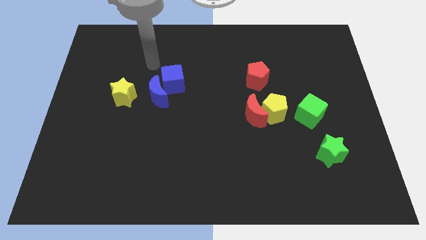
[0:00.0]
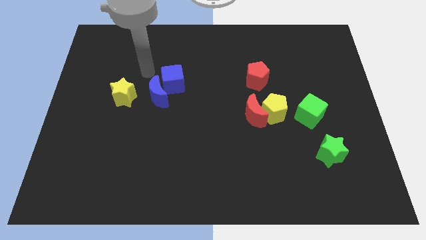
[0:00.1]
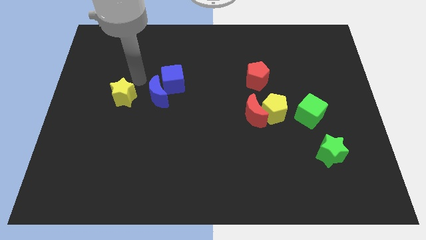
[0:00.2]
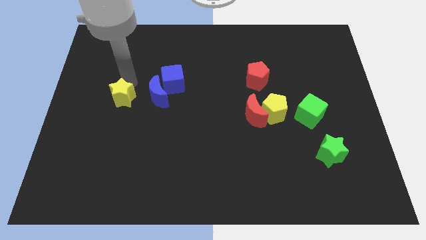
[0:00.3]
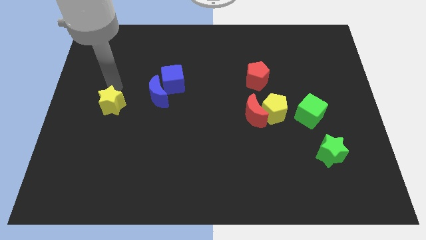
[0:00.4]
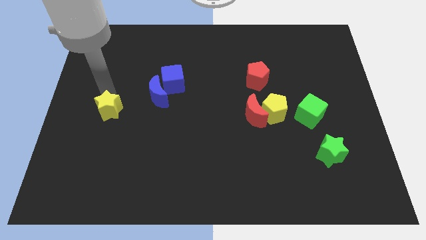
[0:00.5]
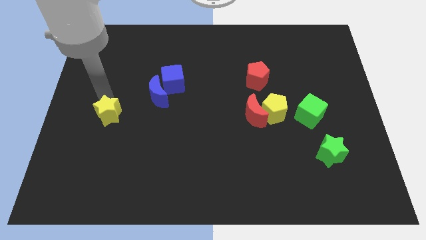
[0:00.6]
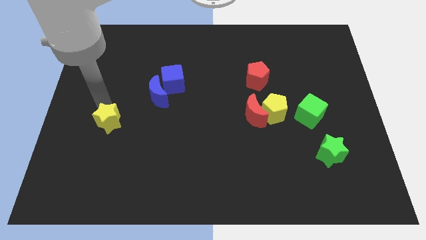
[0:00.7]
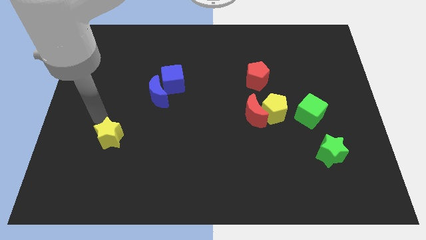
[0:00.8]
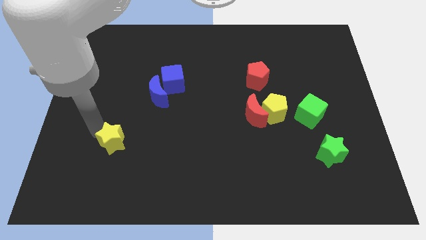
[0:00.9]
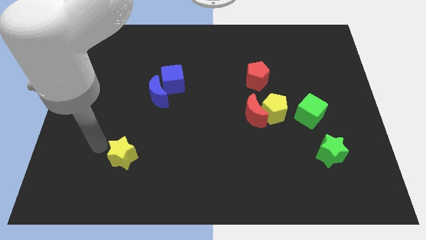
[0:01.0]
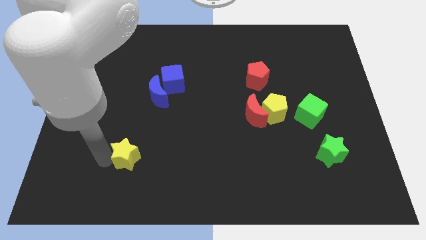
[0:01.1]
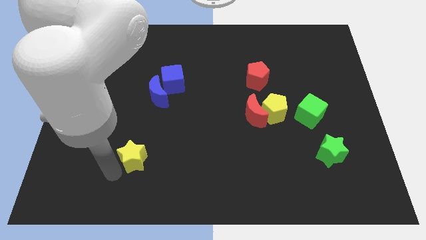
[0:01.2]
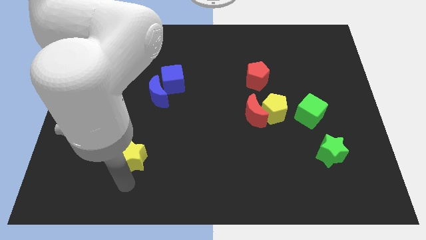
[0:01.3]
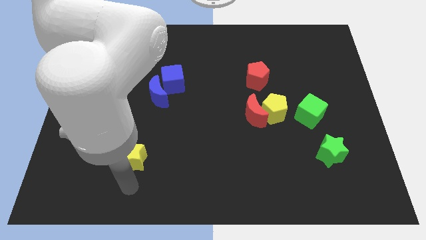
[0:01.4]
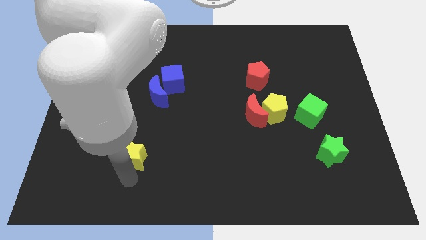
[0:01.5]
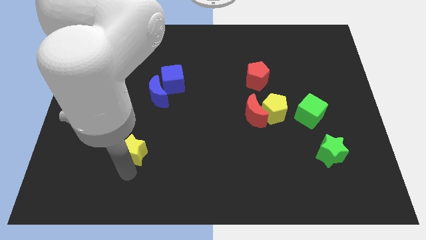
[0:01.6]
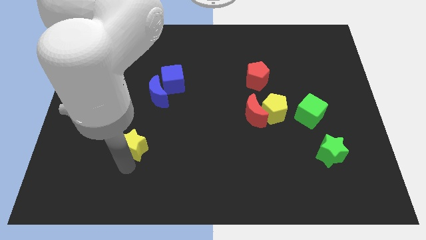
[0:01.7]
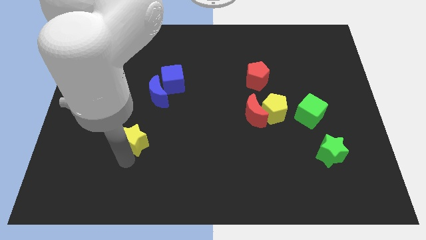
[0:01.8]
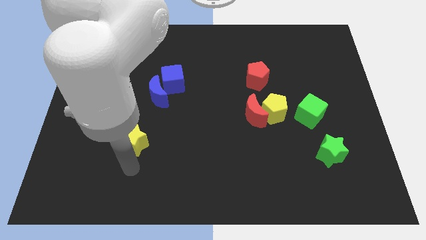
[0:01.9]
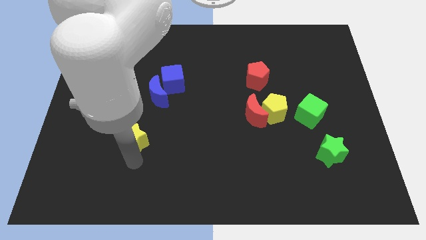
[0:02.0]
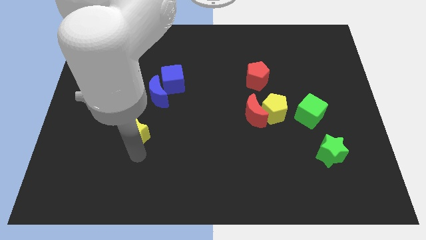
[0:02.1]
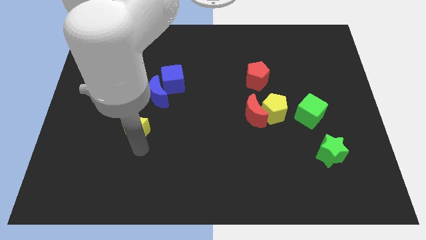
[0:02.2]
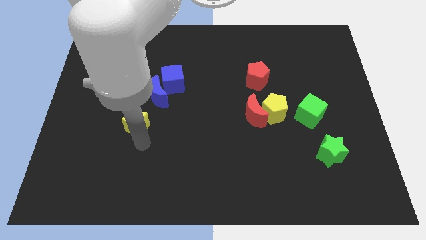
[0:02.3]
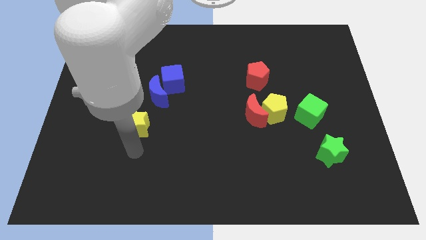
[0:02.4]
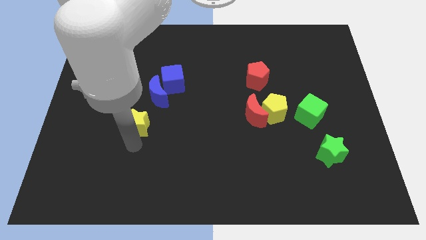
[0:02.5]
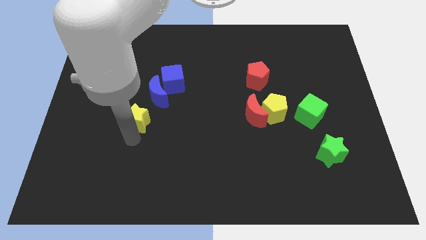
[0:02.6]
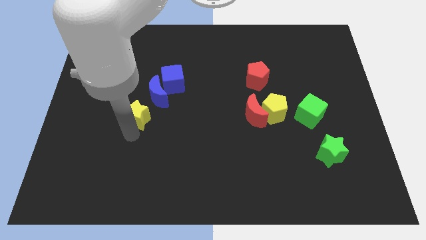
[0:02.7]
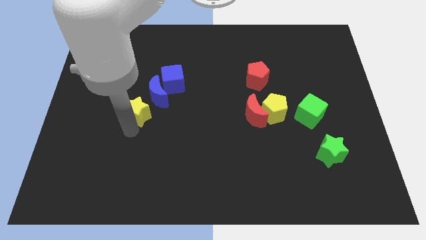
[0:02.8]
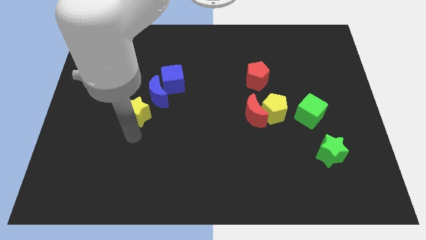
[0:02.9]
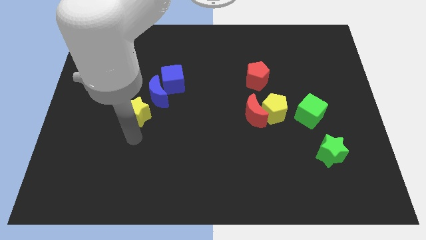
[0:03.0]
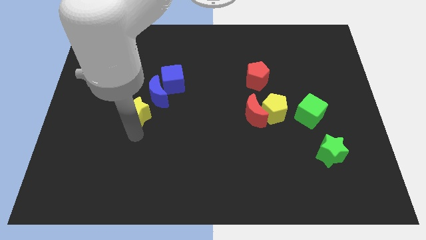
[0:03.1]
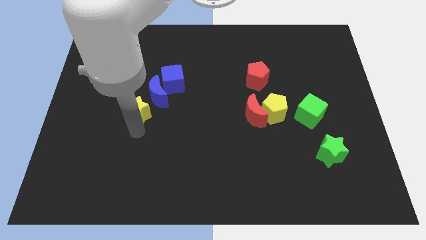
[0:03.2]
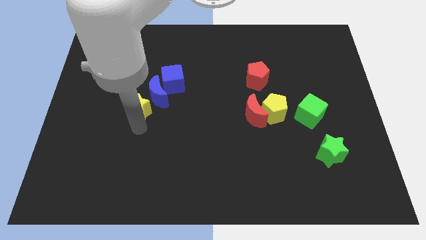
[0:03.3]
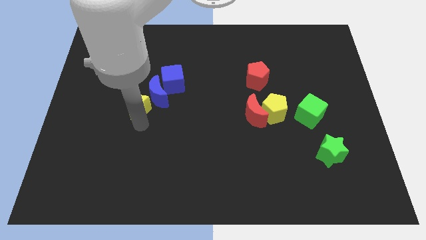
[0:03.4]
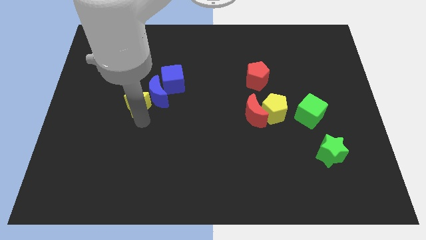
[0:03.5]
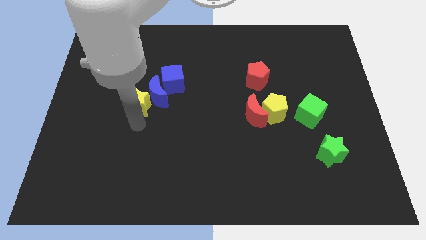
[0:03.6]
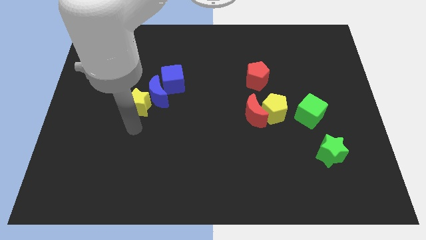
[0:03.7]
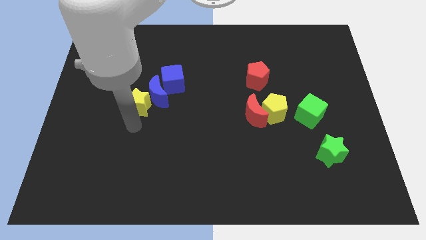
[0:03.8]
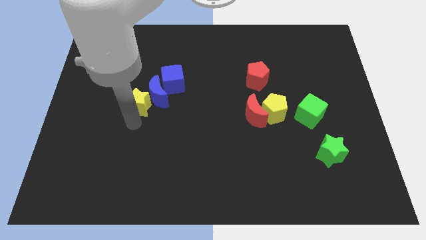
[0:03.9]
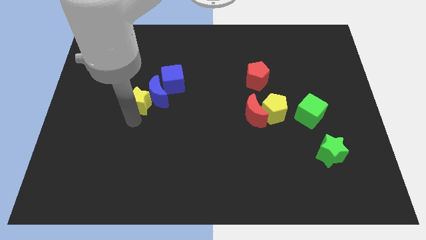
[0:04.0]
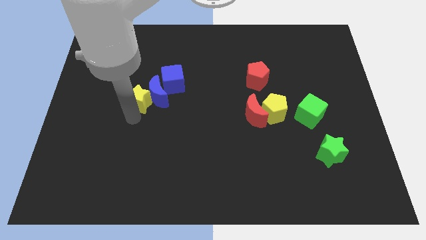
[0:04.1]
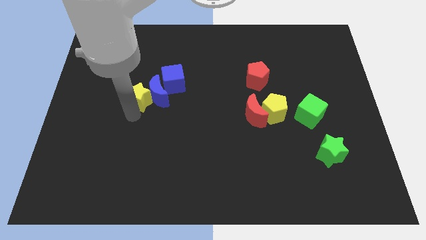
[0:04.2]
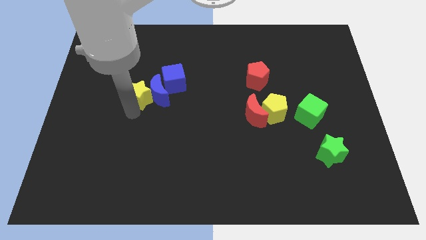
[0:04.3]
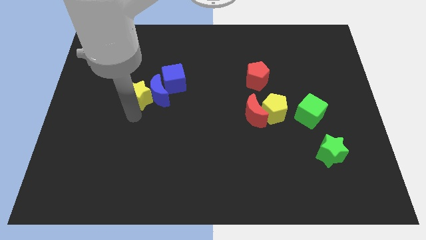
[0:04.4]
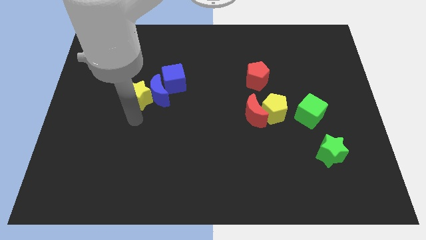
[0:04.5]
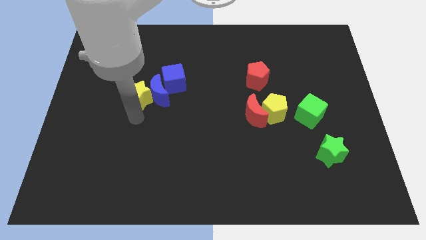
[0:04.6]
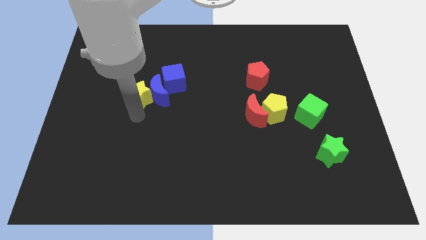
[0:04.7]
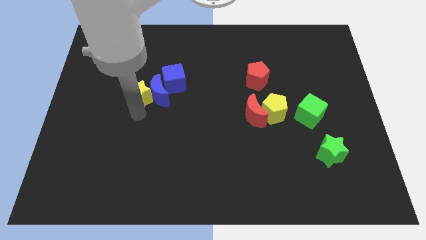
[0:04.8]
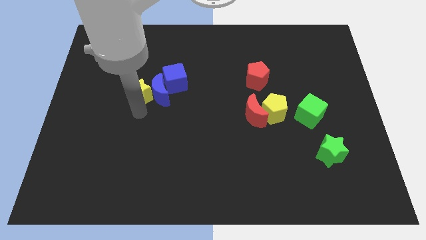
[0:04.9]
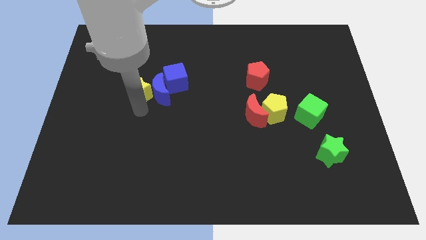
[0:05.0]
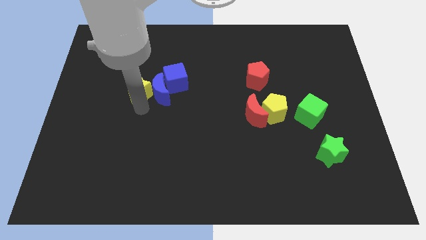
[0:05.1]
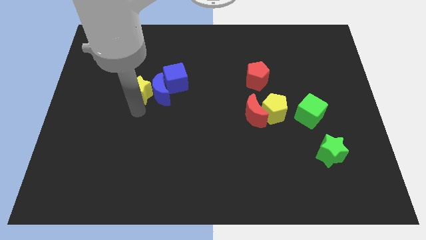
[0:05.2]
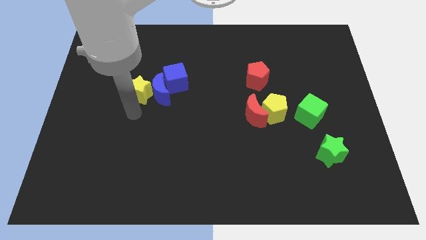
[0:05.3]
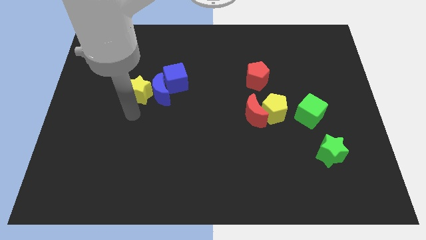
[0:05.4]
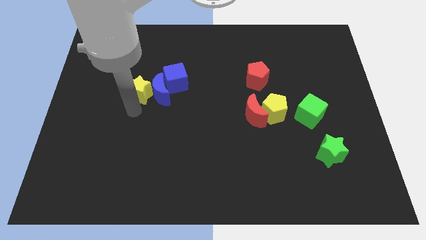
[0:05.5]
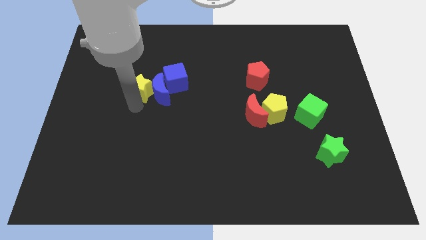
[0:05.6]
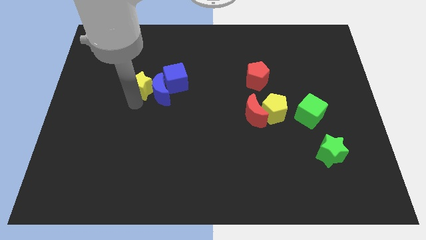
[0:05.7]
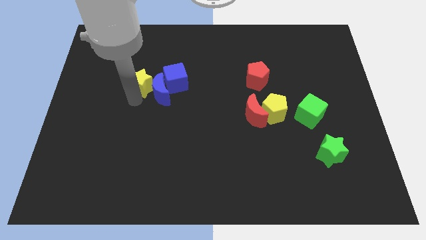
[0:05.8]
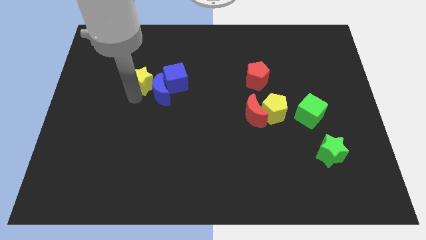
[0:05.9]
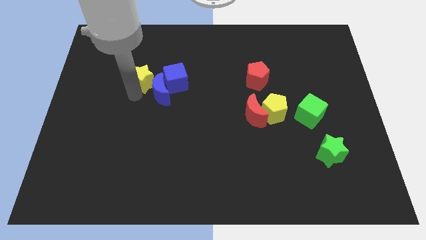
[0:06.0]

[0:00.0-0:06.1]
slightly slide the yellow star up and to the right

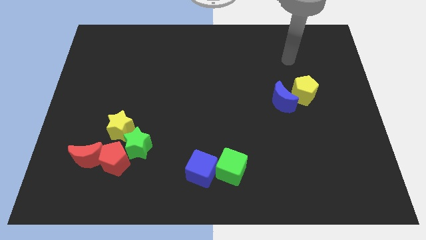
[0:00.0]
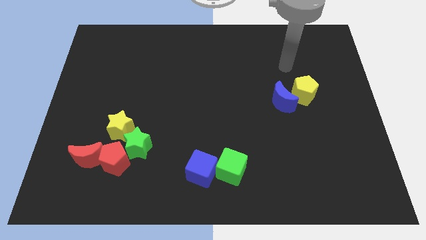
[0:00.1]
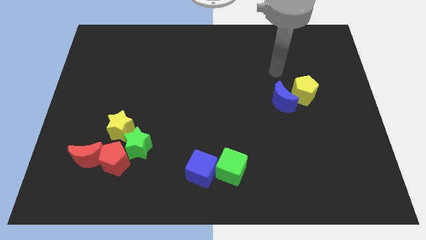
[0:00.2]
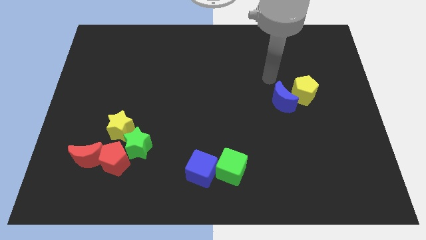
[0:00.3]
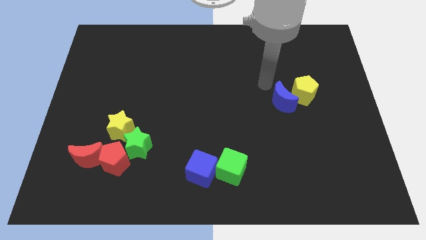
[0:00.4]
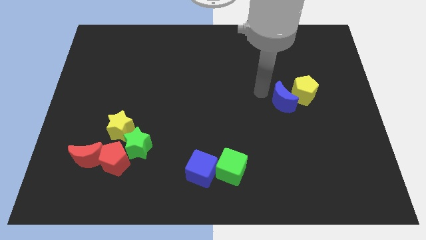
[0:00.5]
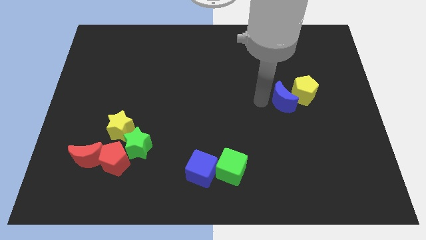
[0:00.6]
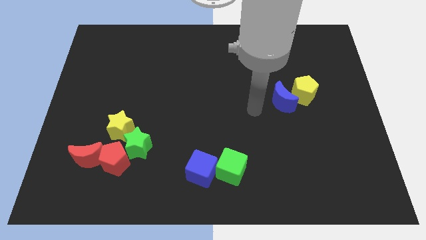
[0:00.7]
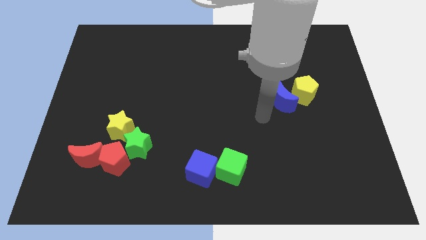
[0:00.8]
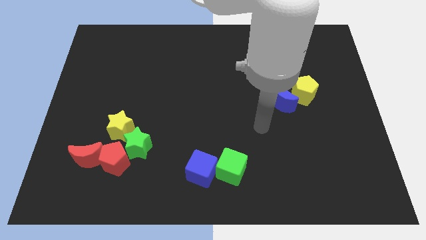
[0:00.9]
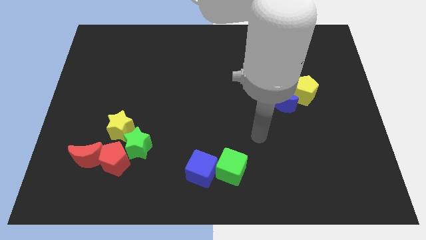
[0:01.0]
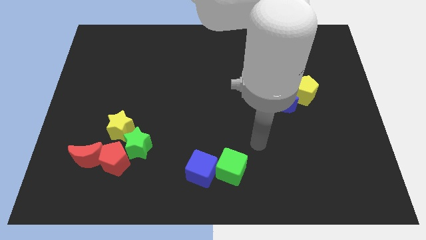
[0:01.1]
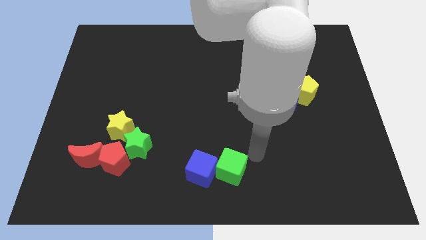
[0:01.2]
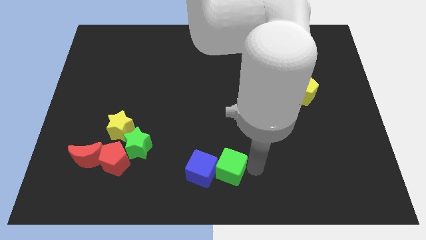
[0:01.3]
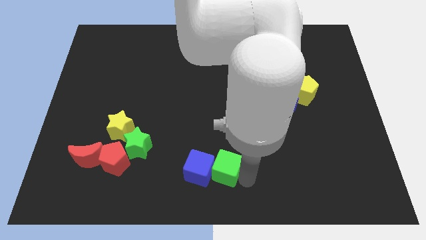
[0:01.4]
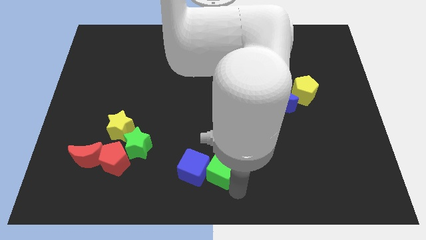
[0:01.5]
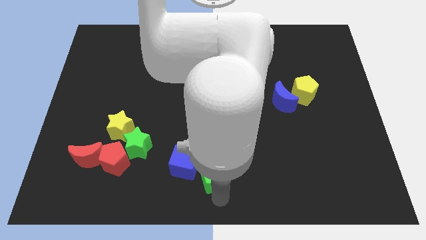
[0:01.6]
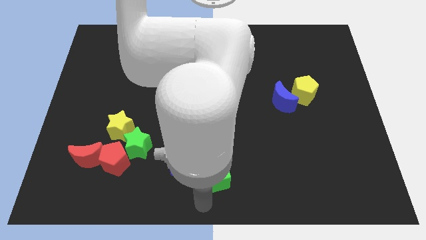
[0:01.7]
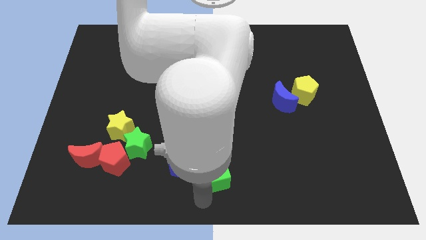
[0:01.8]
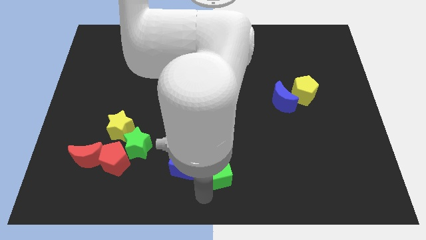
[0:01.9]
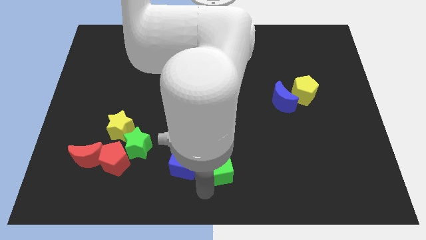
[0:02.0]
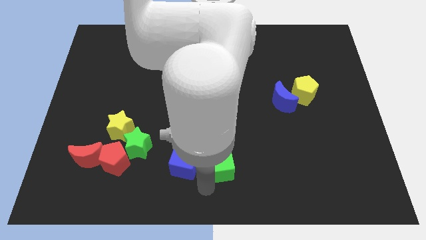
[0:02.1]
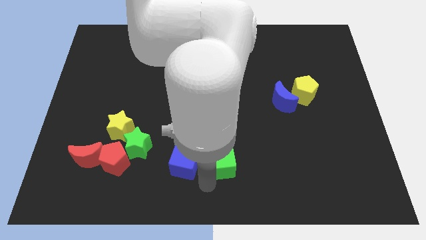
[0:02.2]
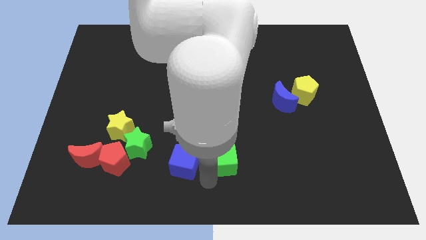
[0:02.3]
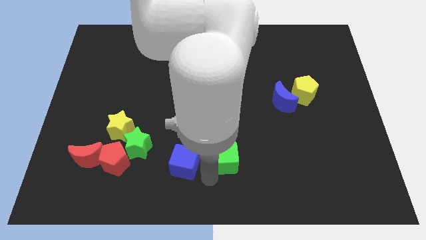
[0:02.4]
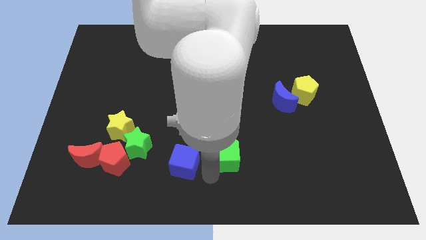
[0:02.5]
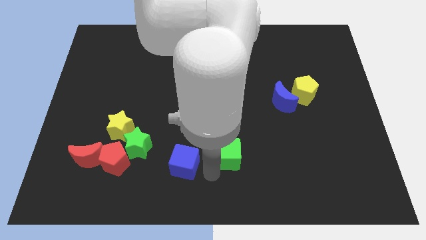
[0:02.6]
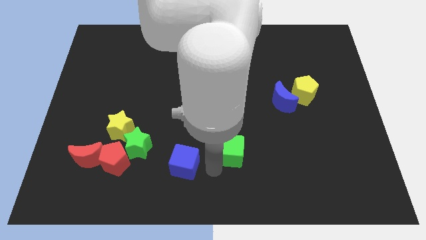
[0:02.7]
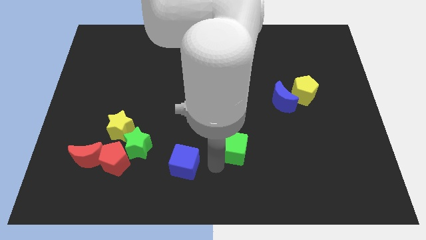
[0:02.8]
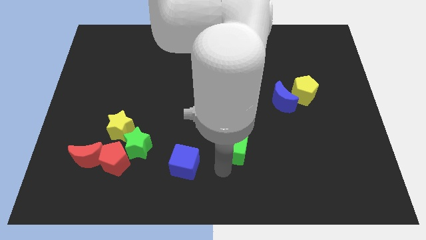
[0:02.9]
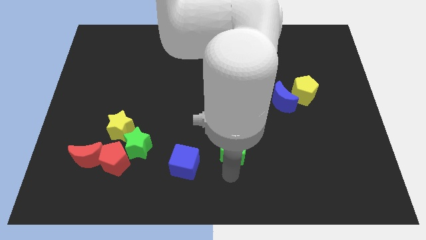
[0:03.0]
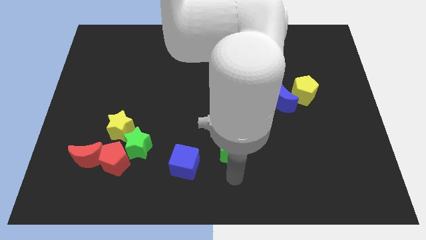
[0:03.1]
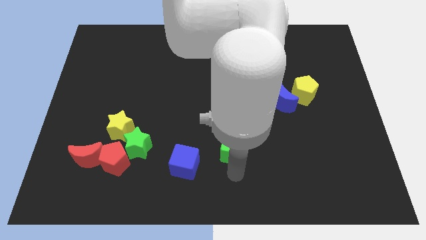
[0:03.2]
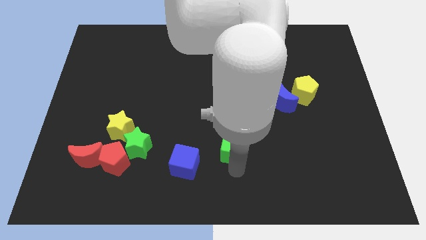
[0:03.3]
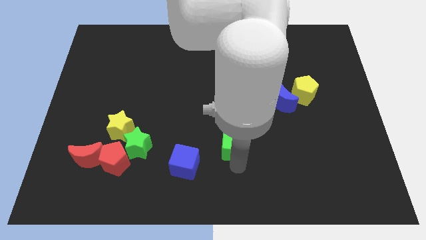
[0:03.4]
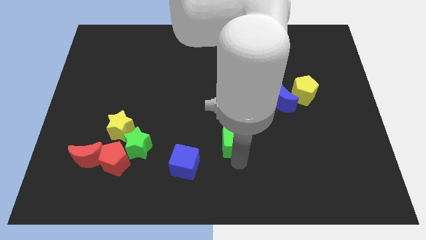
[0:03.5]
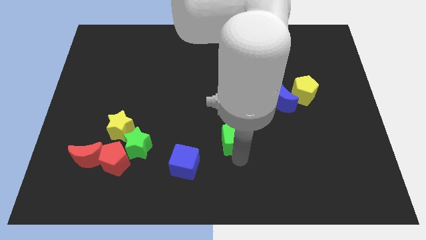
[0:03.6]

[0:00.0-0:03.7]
push the green cube a little bit upwards
